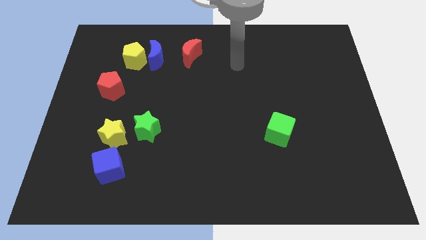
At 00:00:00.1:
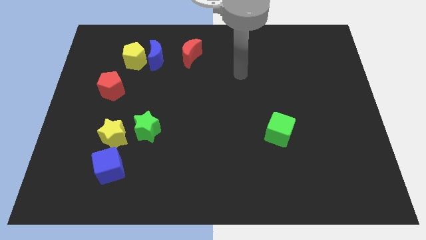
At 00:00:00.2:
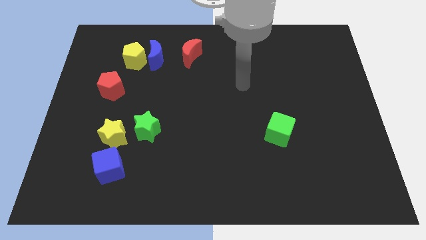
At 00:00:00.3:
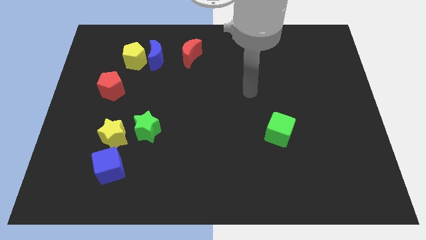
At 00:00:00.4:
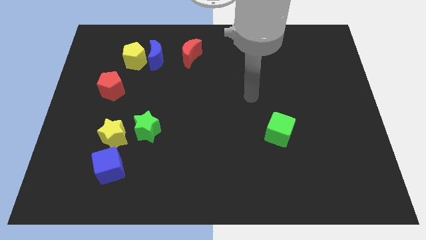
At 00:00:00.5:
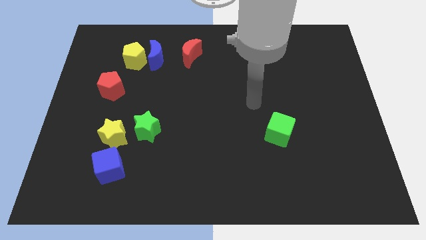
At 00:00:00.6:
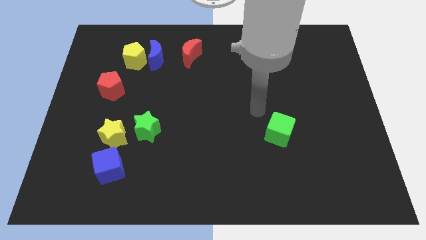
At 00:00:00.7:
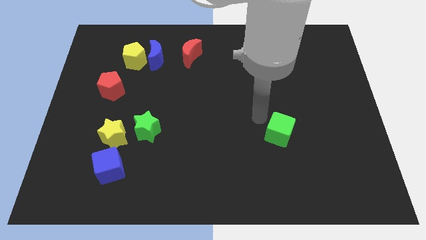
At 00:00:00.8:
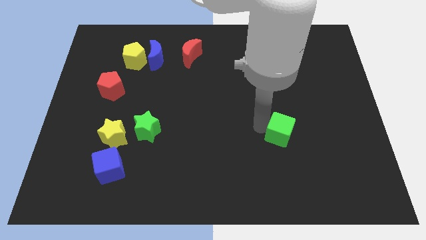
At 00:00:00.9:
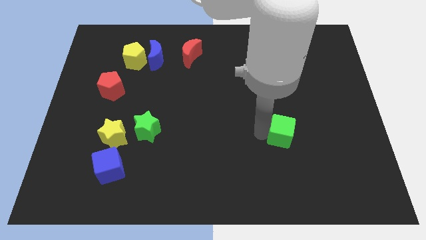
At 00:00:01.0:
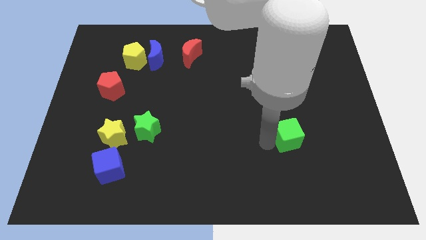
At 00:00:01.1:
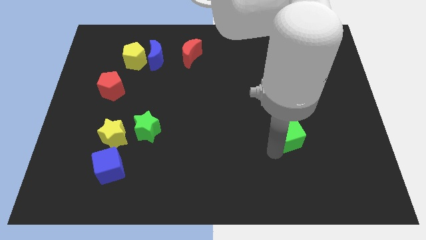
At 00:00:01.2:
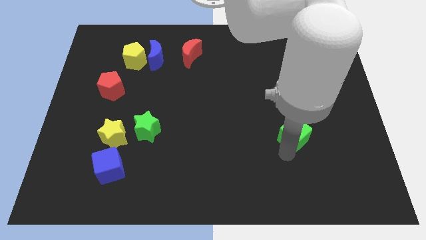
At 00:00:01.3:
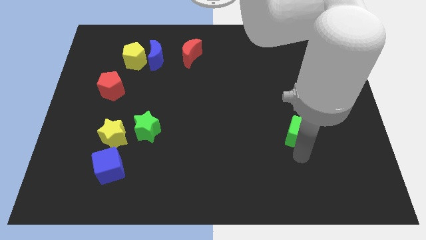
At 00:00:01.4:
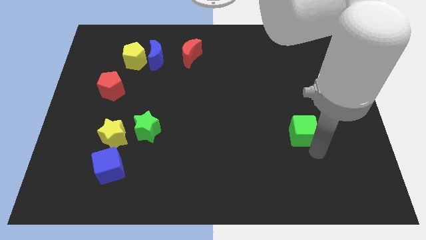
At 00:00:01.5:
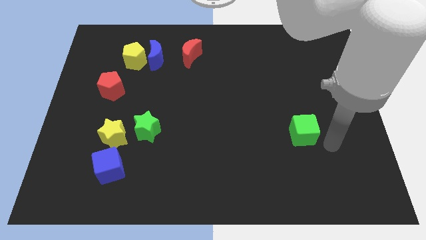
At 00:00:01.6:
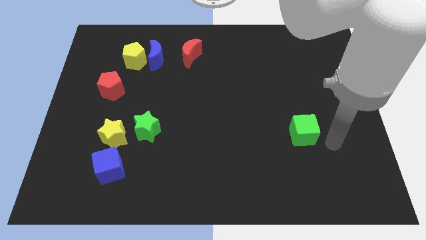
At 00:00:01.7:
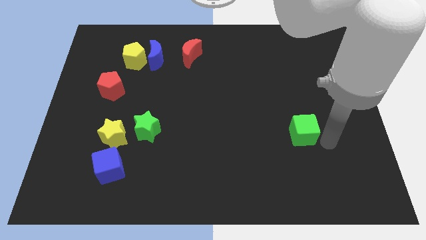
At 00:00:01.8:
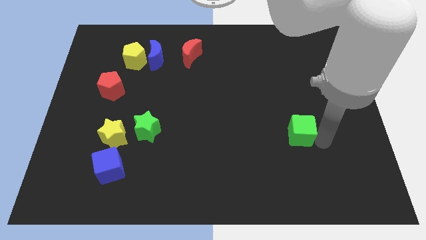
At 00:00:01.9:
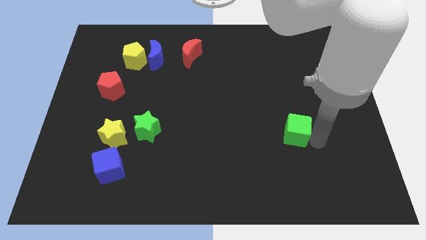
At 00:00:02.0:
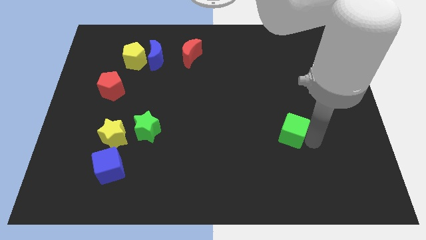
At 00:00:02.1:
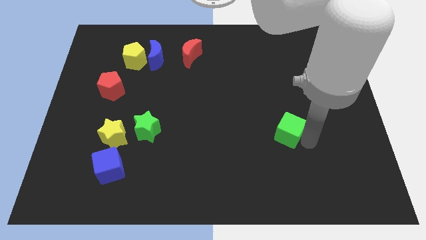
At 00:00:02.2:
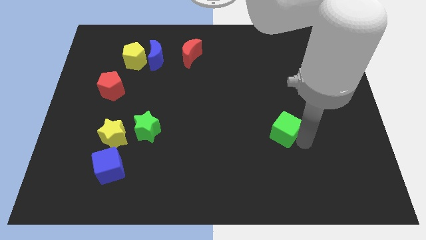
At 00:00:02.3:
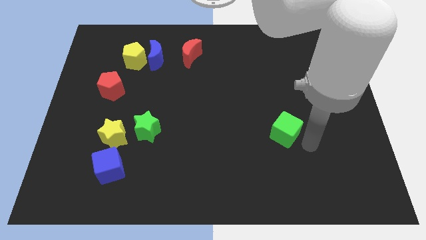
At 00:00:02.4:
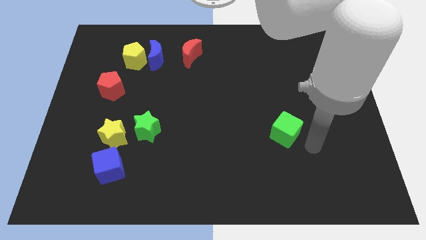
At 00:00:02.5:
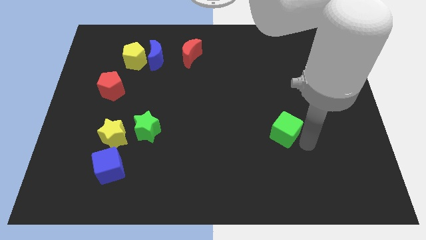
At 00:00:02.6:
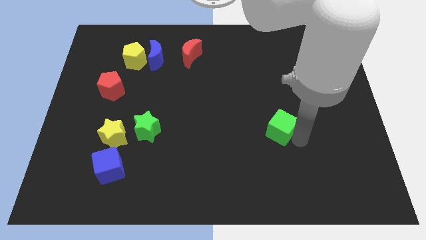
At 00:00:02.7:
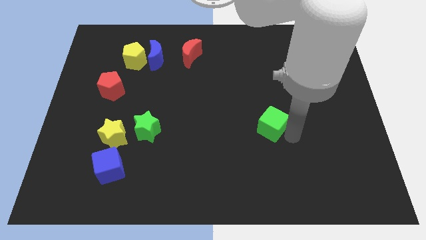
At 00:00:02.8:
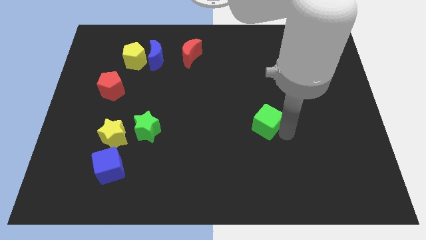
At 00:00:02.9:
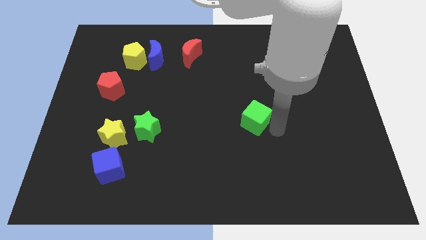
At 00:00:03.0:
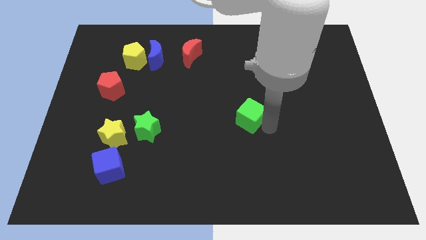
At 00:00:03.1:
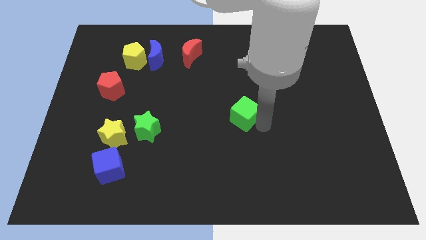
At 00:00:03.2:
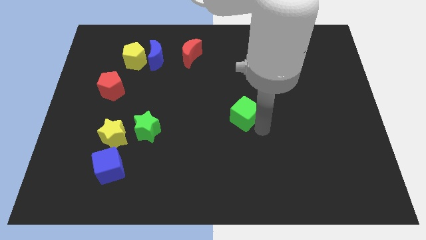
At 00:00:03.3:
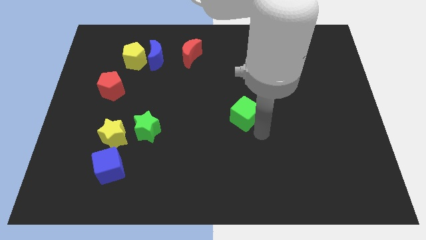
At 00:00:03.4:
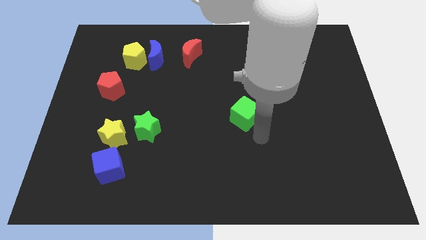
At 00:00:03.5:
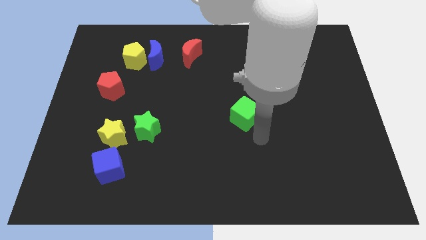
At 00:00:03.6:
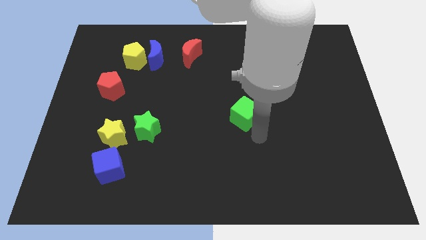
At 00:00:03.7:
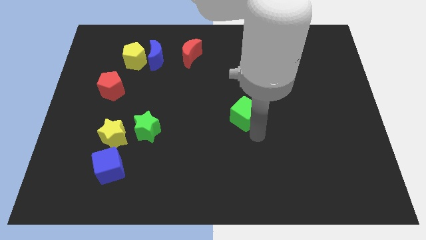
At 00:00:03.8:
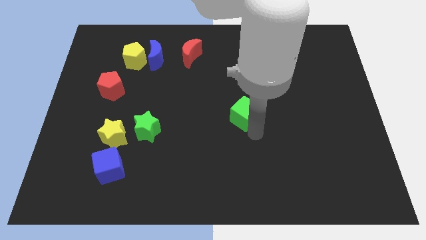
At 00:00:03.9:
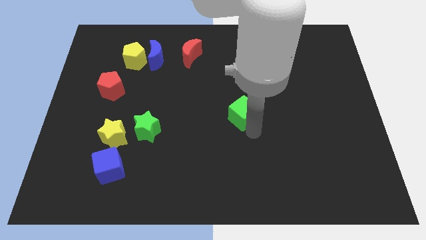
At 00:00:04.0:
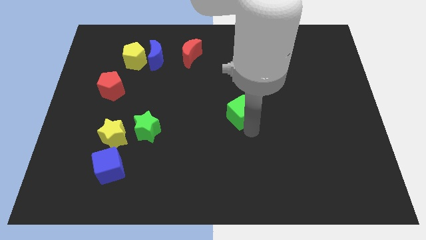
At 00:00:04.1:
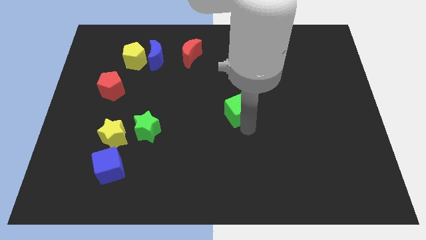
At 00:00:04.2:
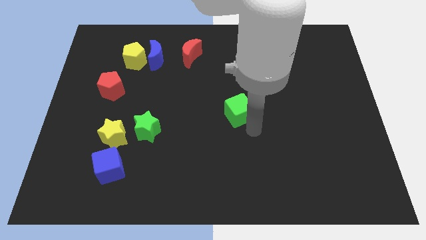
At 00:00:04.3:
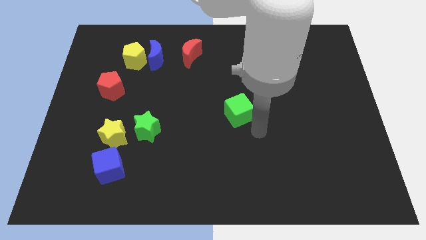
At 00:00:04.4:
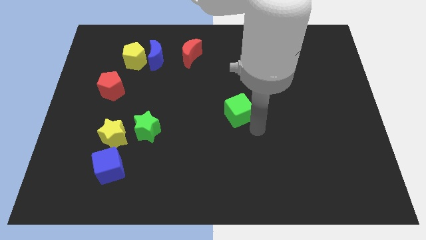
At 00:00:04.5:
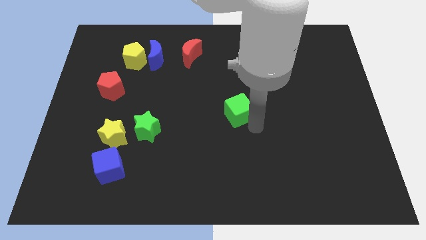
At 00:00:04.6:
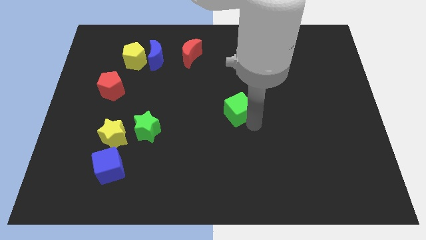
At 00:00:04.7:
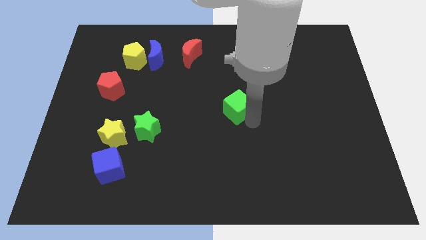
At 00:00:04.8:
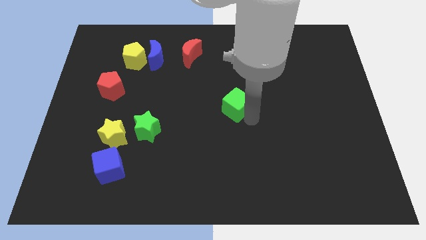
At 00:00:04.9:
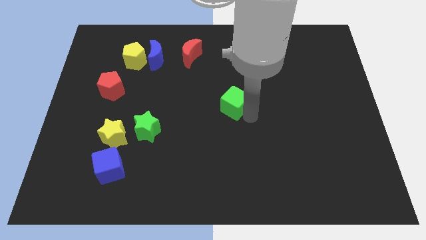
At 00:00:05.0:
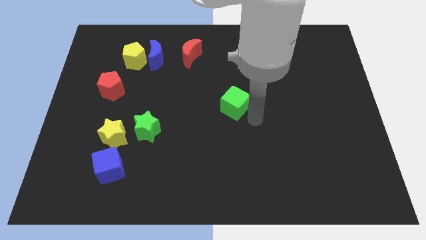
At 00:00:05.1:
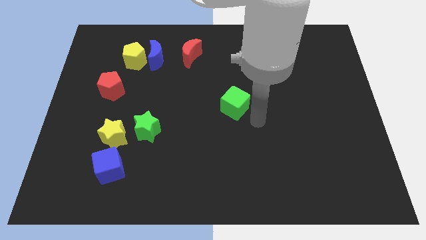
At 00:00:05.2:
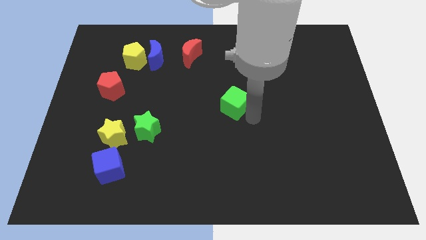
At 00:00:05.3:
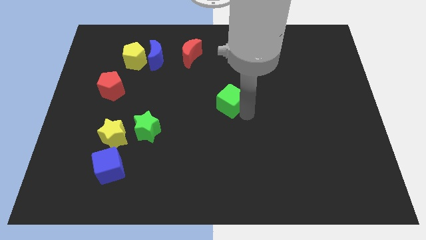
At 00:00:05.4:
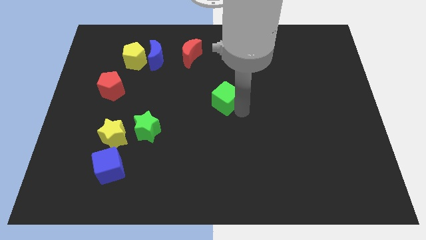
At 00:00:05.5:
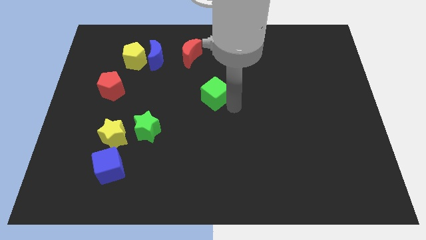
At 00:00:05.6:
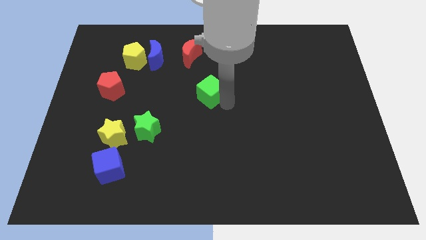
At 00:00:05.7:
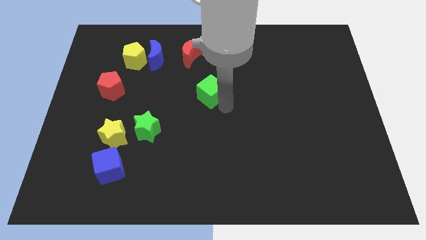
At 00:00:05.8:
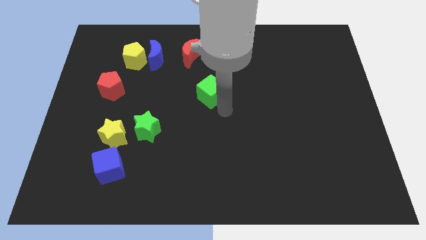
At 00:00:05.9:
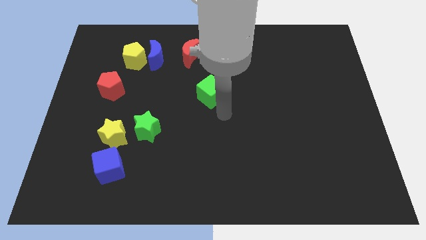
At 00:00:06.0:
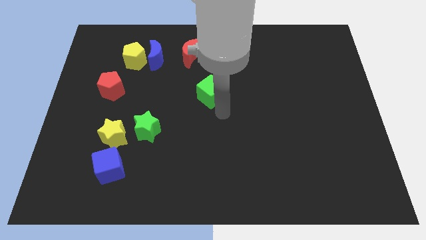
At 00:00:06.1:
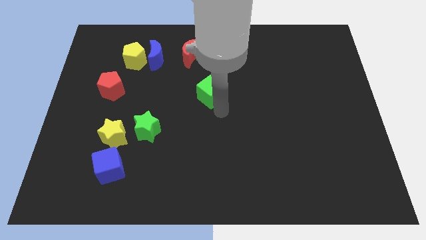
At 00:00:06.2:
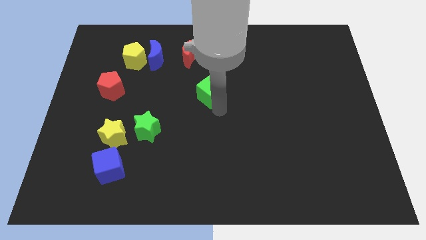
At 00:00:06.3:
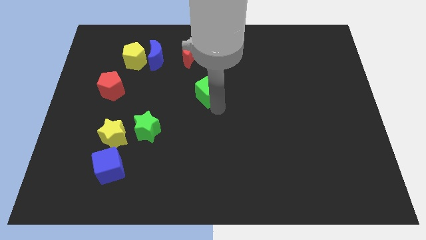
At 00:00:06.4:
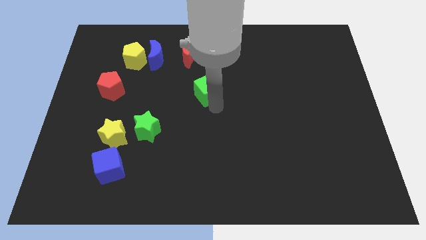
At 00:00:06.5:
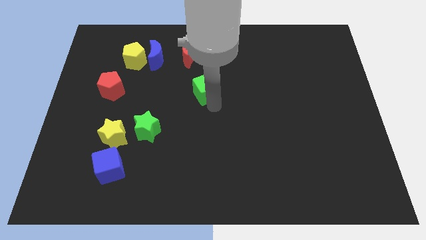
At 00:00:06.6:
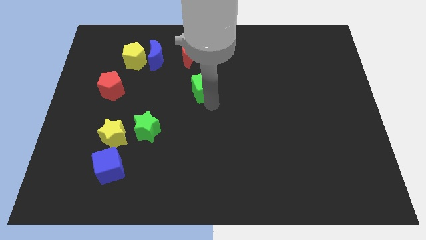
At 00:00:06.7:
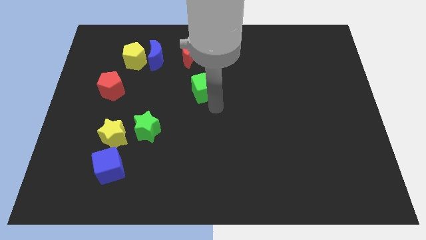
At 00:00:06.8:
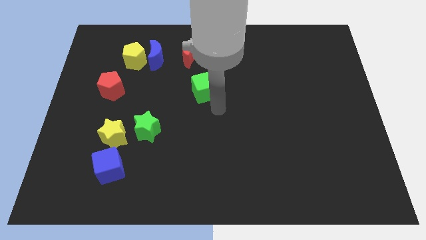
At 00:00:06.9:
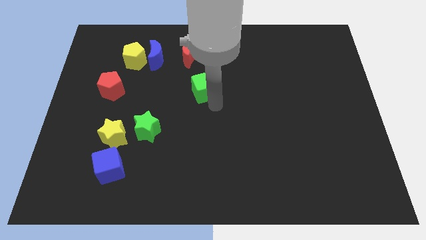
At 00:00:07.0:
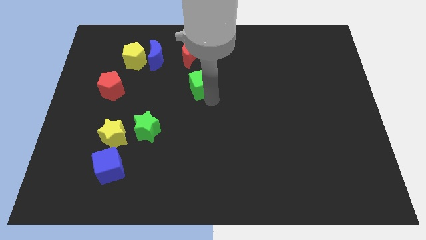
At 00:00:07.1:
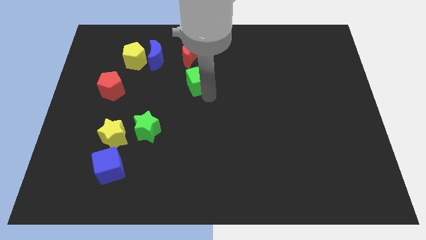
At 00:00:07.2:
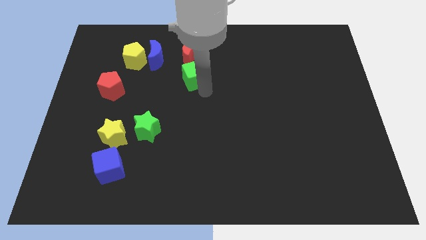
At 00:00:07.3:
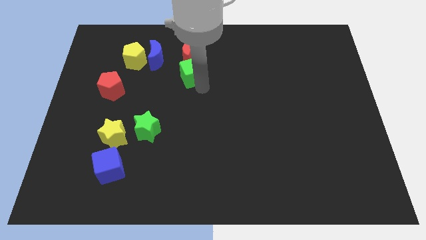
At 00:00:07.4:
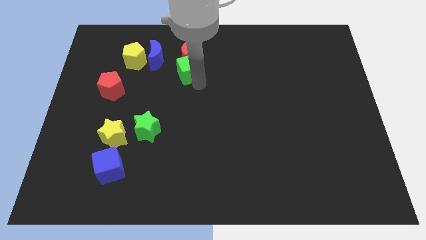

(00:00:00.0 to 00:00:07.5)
move the green cube close to the red moon
